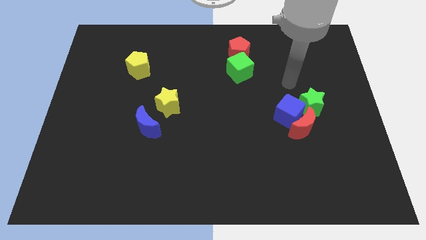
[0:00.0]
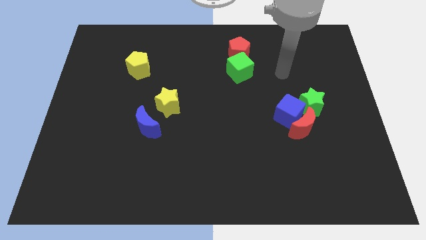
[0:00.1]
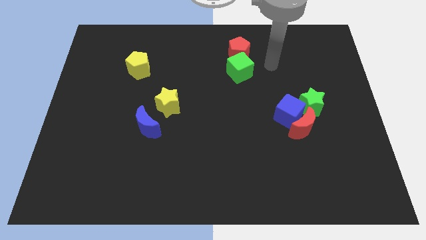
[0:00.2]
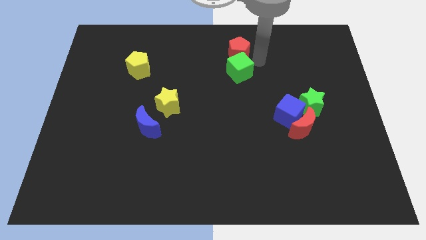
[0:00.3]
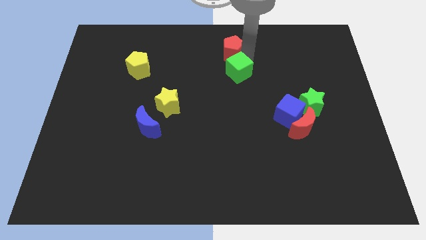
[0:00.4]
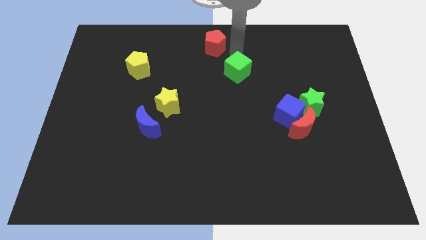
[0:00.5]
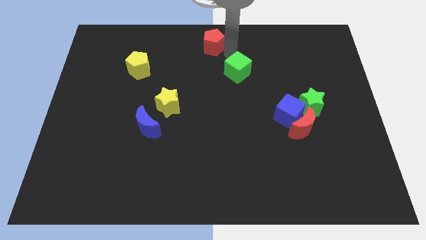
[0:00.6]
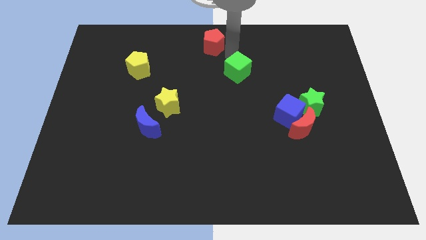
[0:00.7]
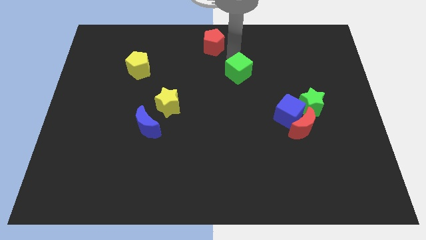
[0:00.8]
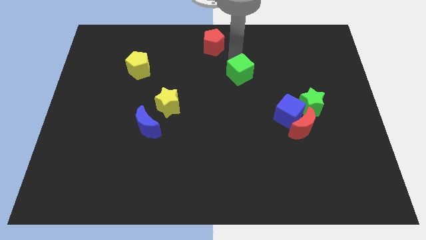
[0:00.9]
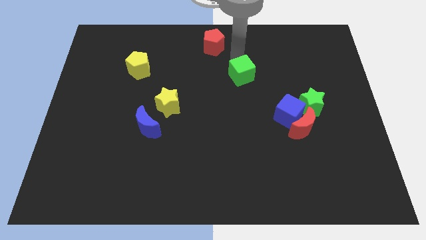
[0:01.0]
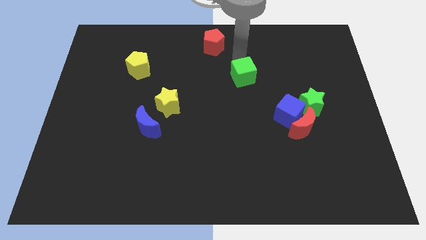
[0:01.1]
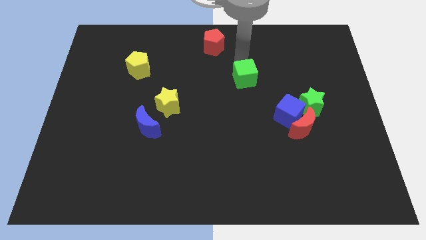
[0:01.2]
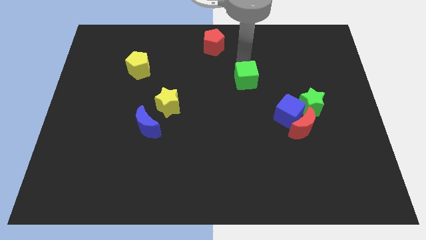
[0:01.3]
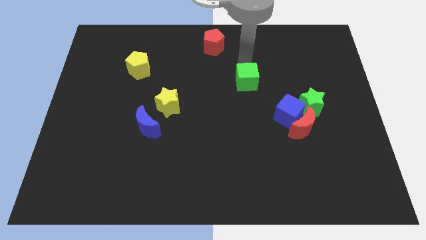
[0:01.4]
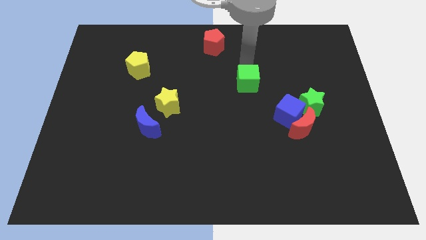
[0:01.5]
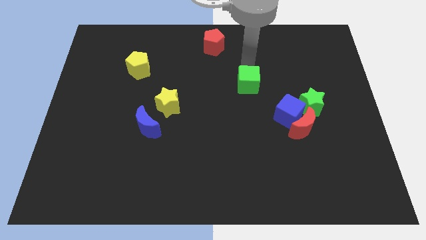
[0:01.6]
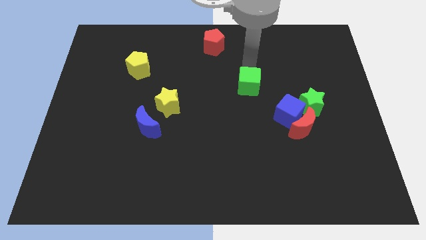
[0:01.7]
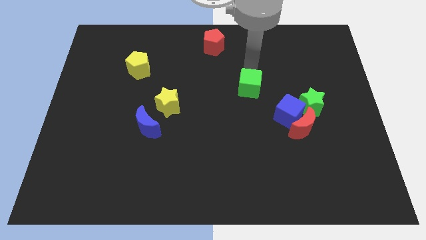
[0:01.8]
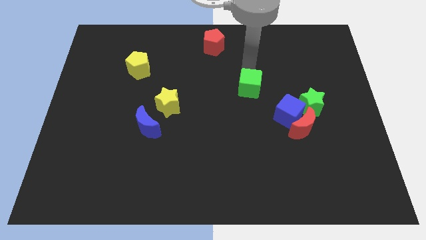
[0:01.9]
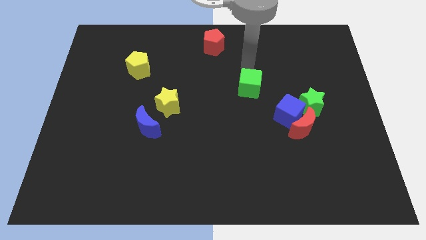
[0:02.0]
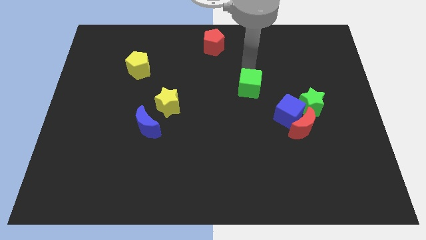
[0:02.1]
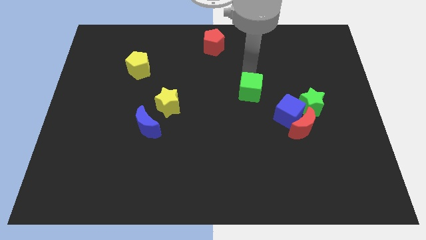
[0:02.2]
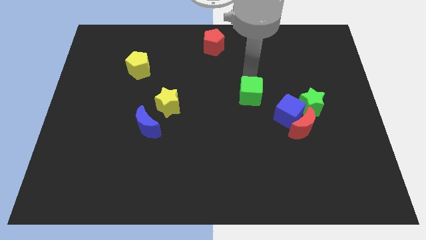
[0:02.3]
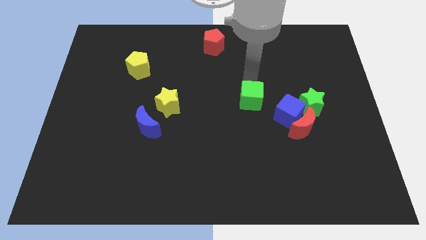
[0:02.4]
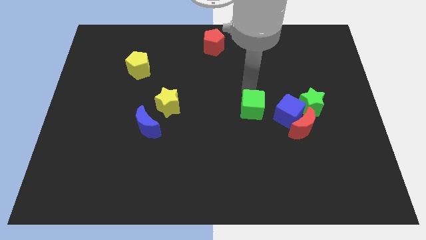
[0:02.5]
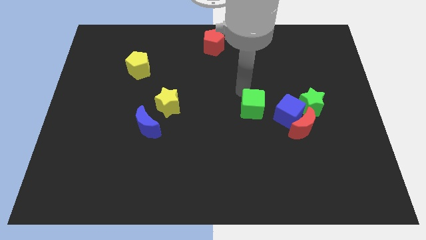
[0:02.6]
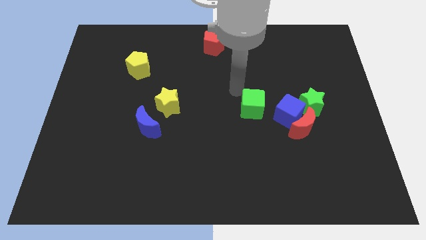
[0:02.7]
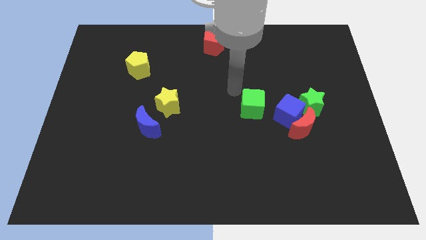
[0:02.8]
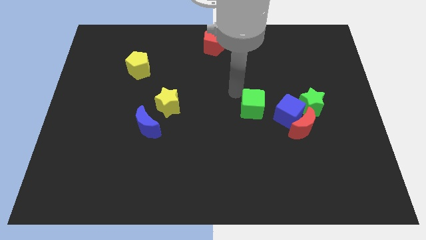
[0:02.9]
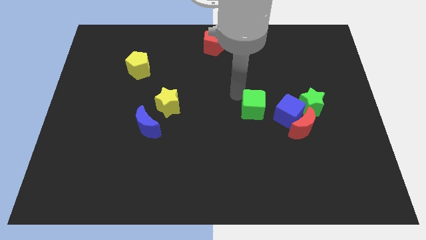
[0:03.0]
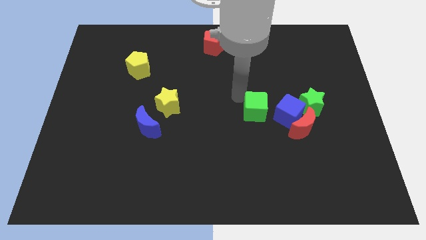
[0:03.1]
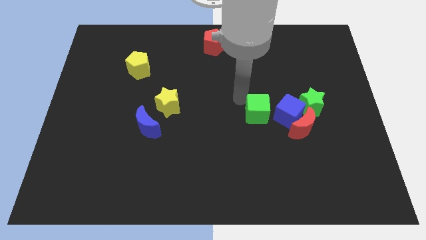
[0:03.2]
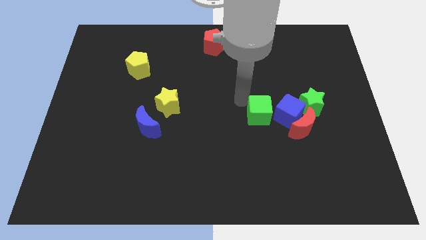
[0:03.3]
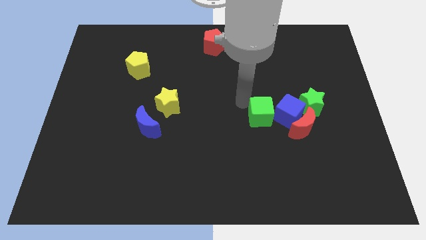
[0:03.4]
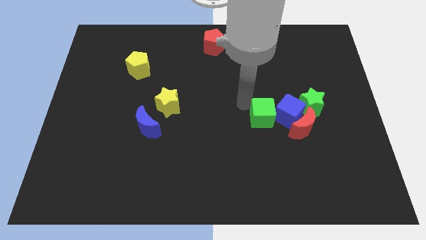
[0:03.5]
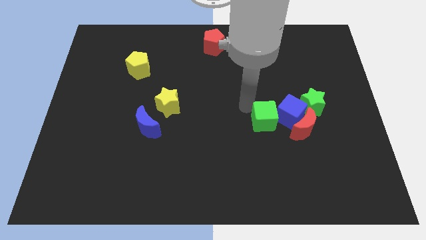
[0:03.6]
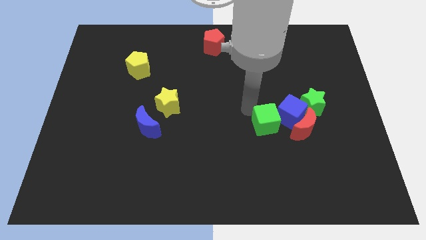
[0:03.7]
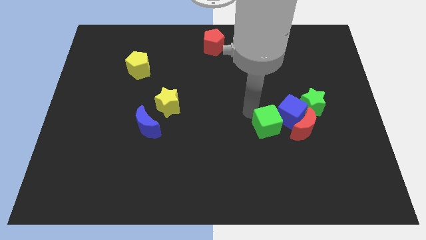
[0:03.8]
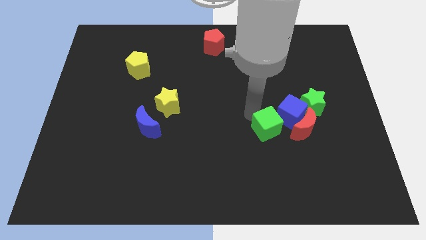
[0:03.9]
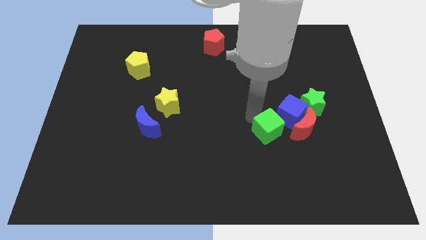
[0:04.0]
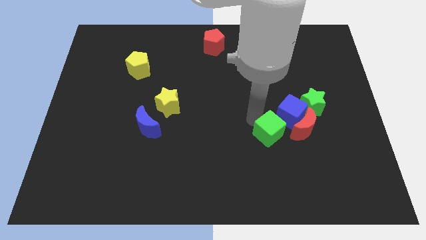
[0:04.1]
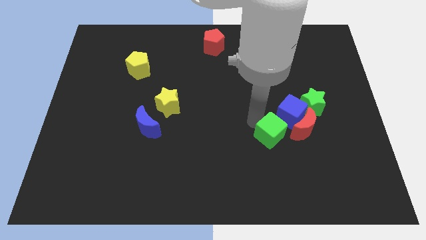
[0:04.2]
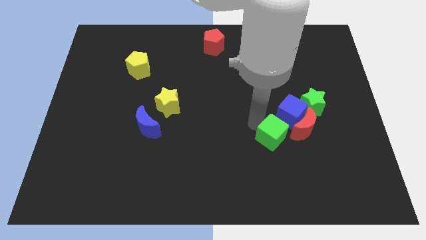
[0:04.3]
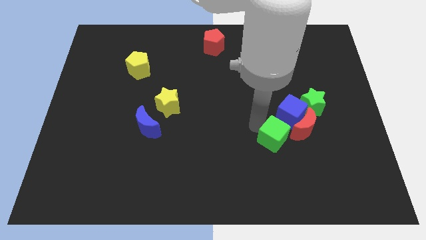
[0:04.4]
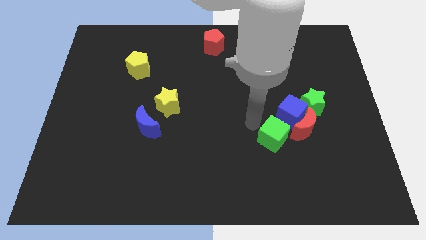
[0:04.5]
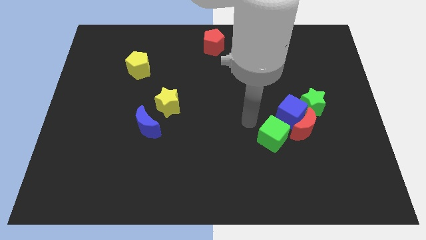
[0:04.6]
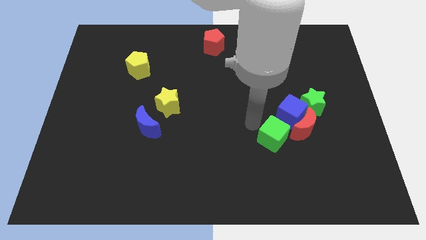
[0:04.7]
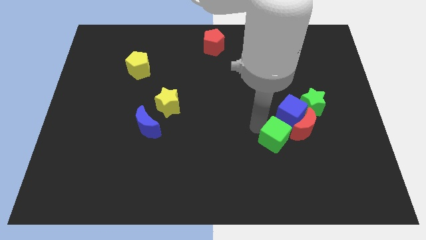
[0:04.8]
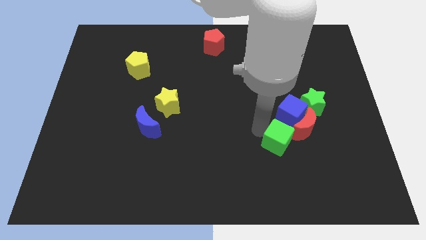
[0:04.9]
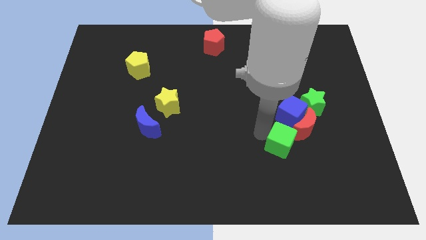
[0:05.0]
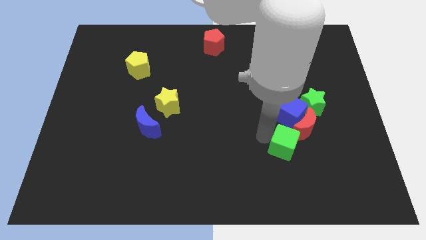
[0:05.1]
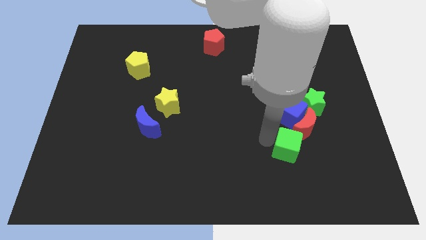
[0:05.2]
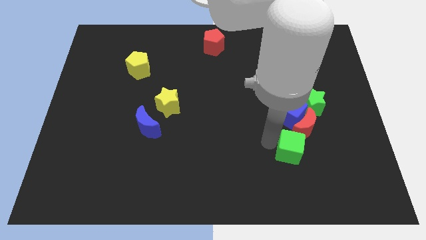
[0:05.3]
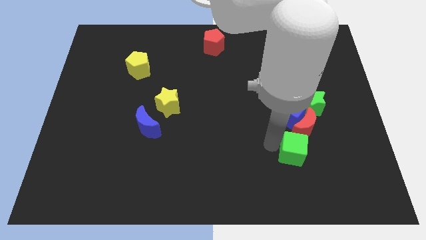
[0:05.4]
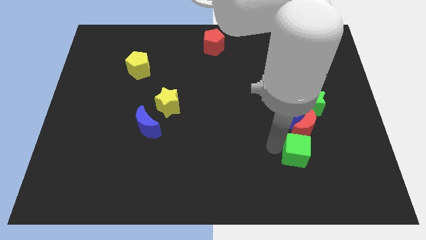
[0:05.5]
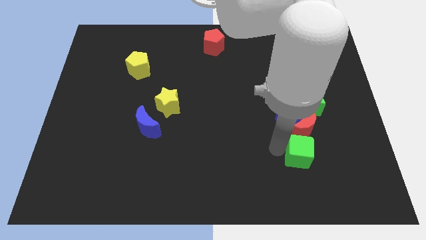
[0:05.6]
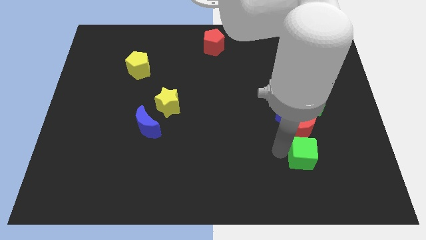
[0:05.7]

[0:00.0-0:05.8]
slide the green cube to the bottom of the green star
